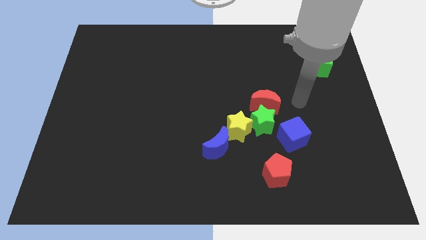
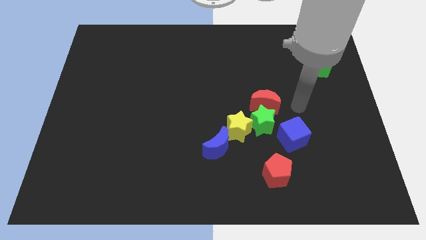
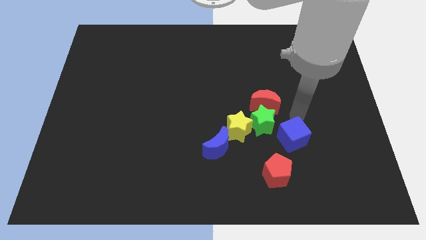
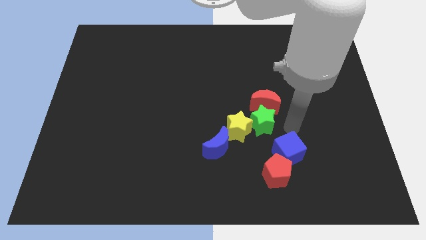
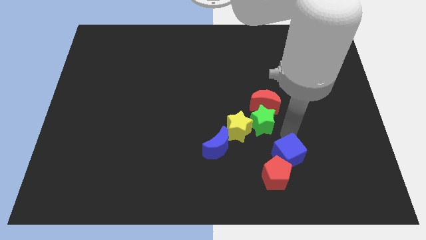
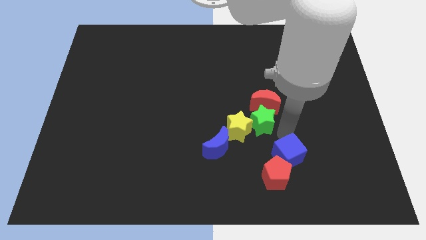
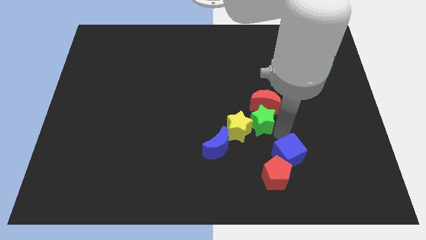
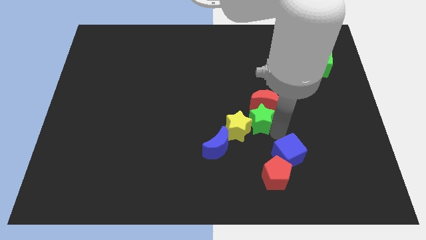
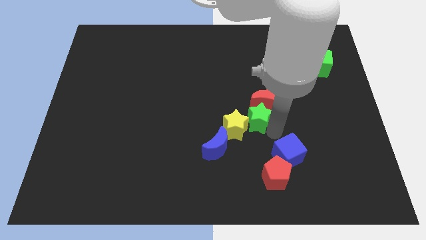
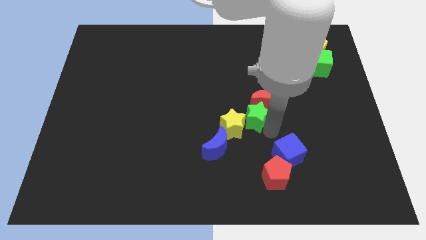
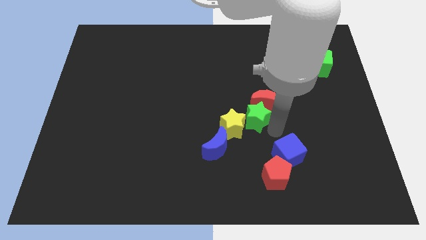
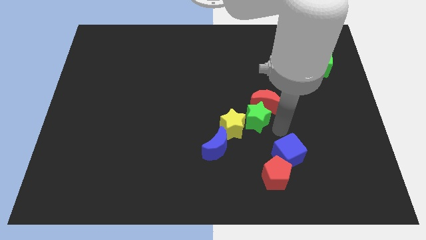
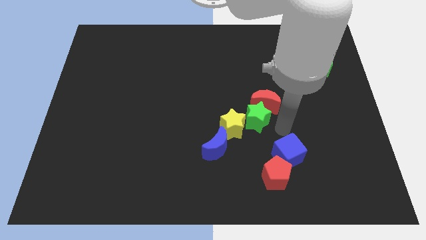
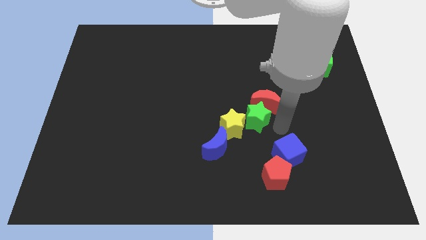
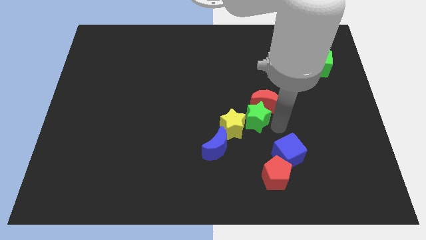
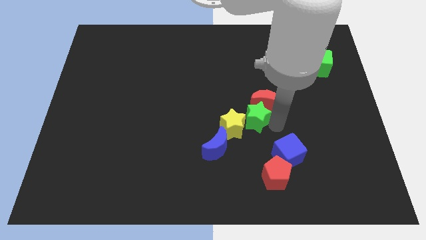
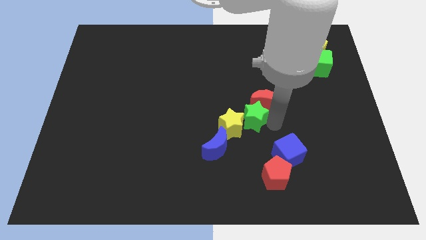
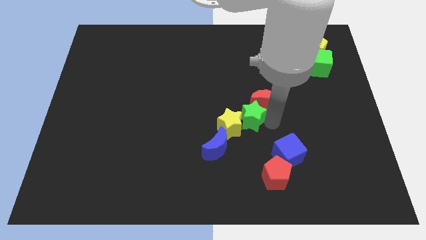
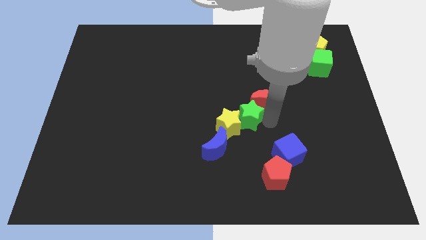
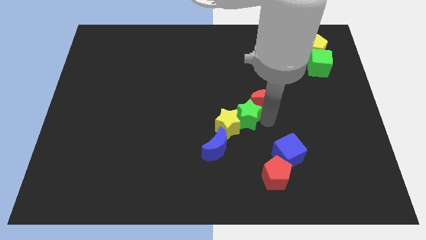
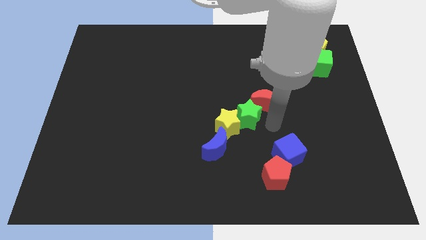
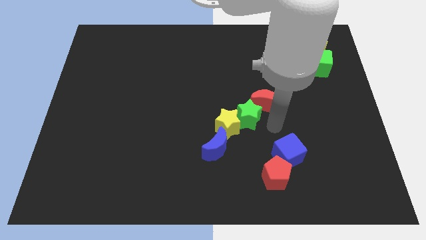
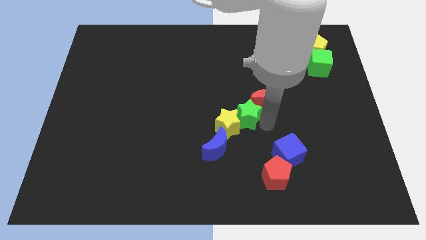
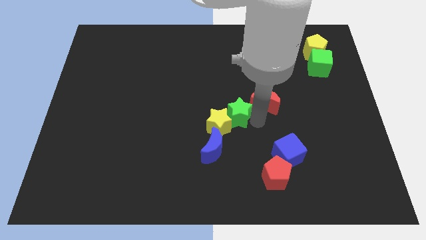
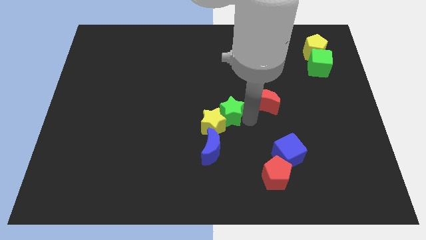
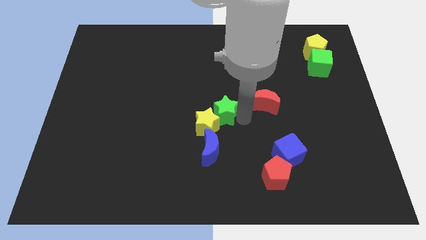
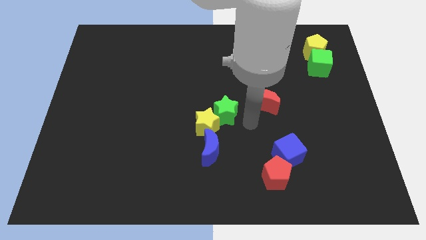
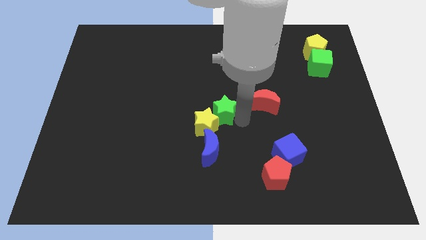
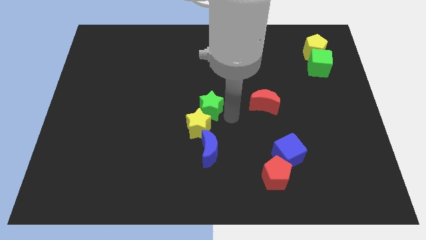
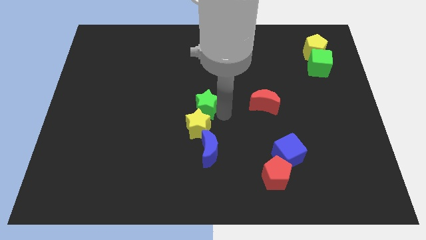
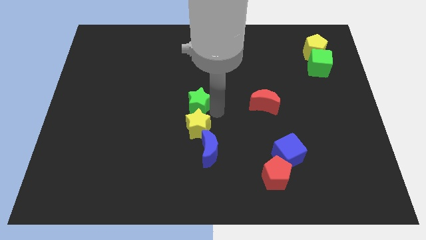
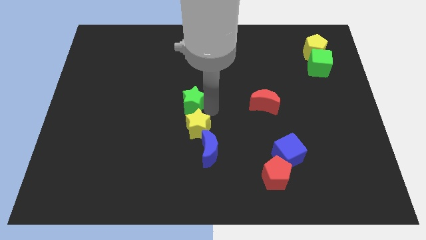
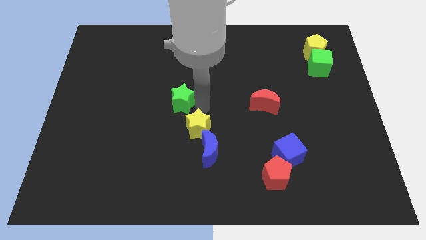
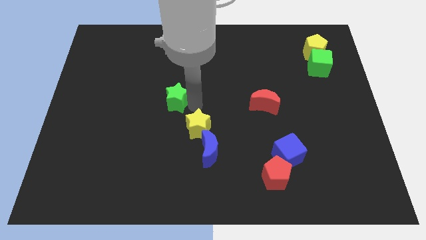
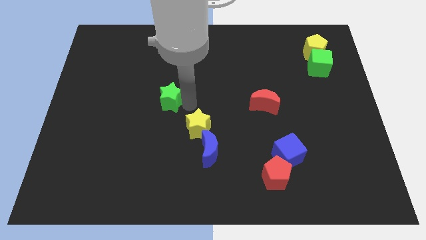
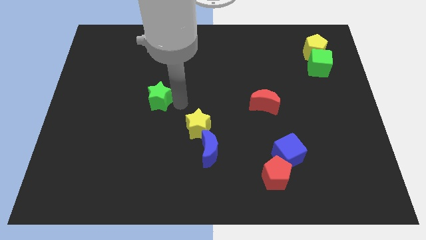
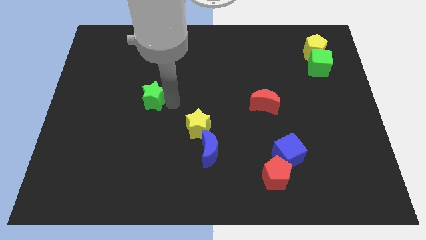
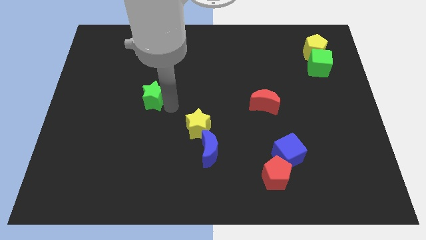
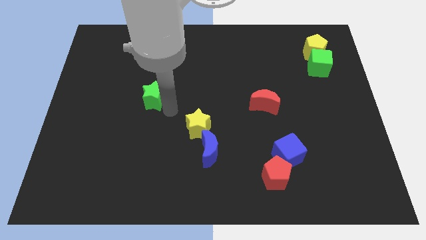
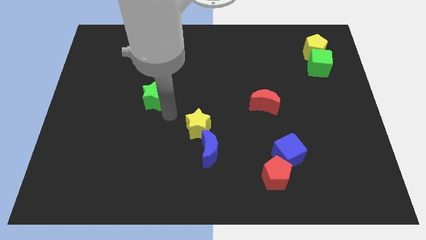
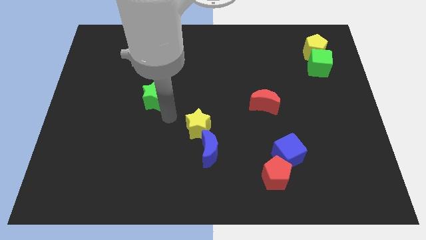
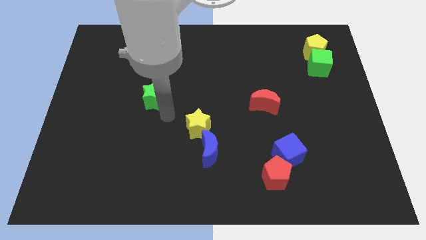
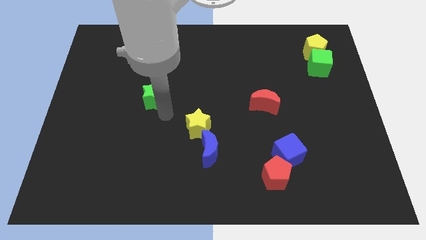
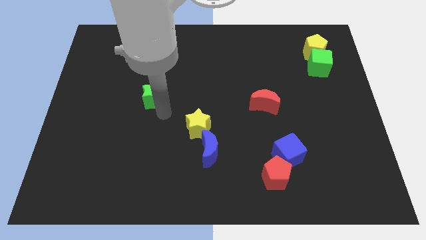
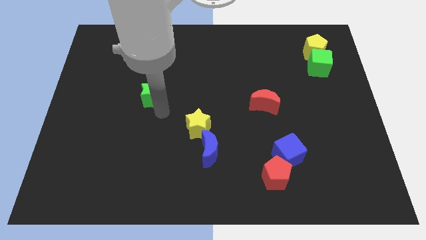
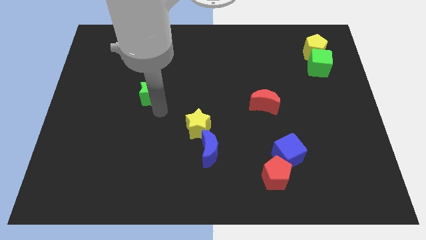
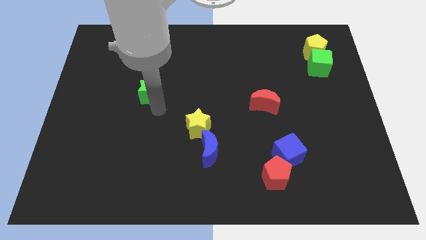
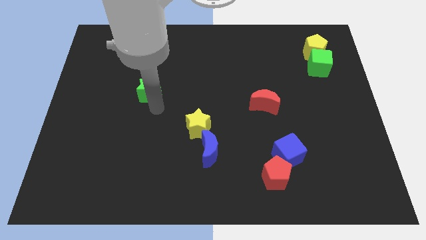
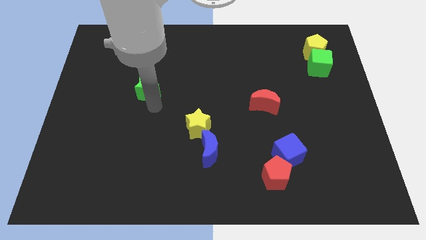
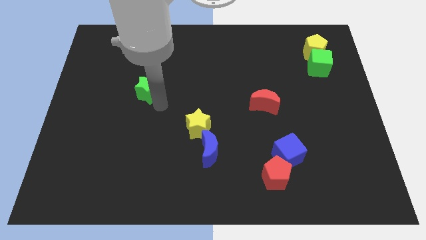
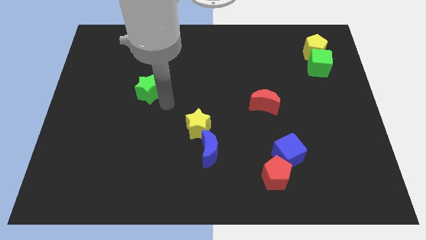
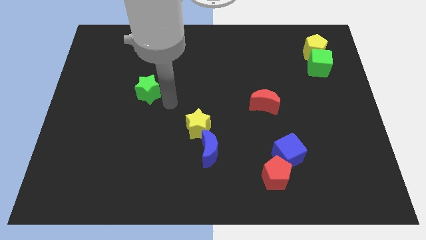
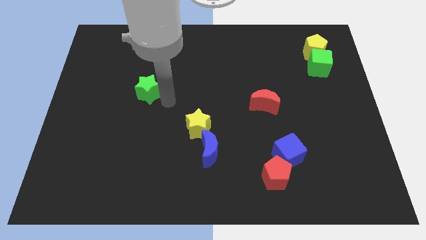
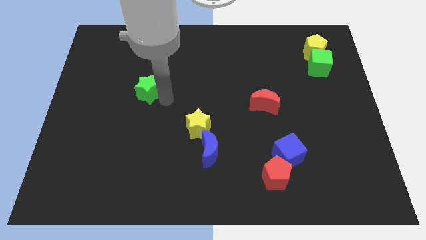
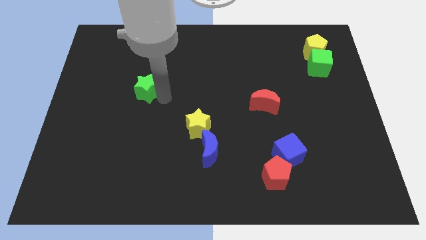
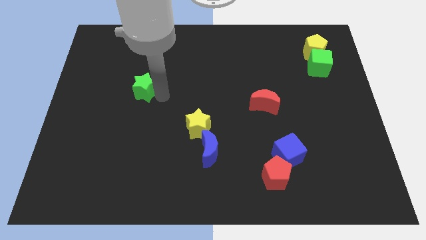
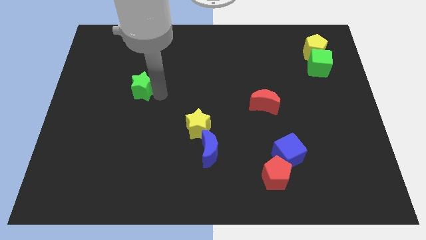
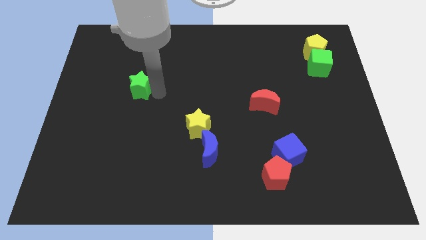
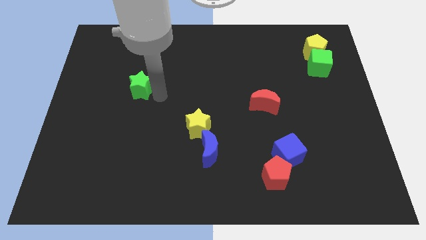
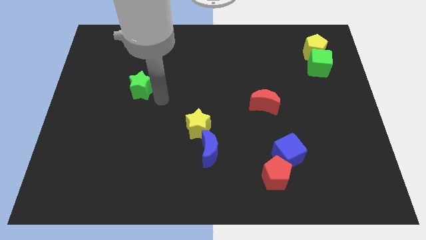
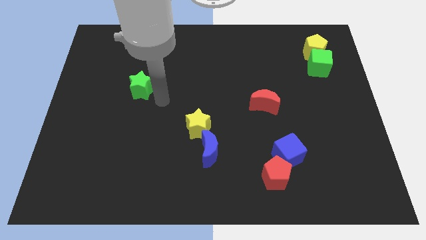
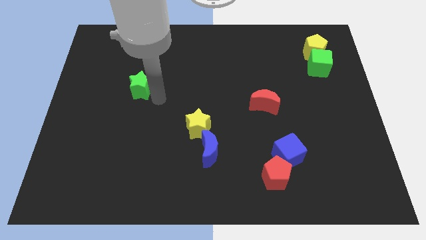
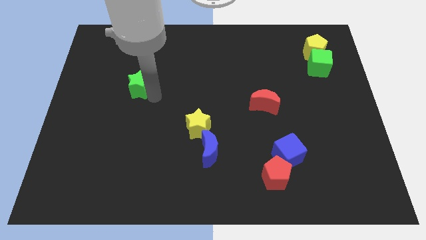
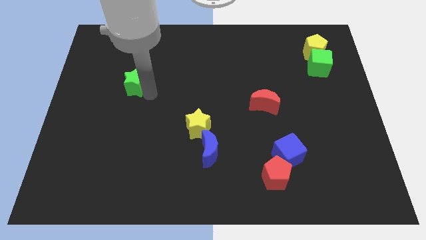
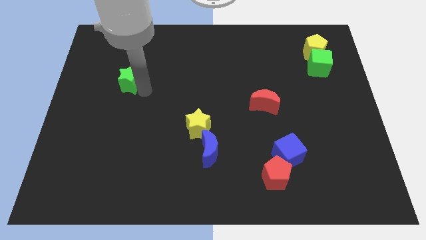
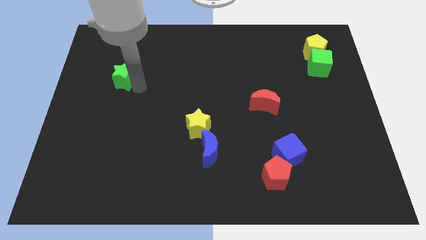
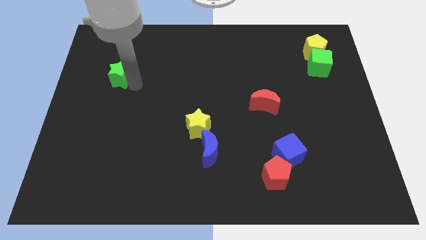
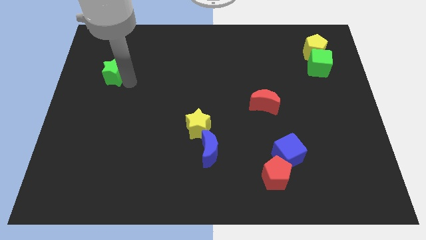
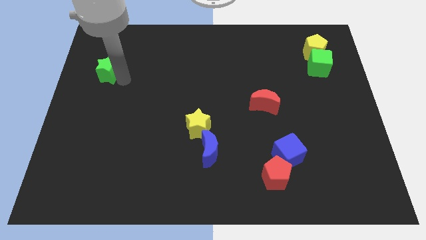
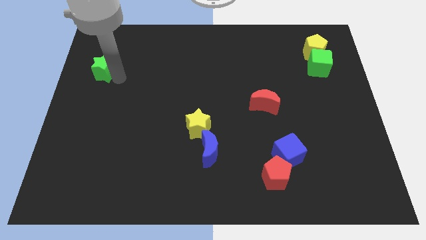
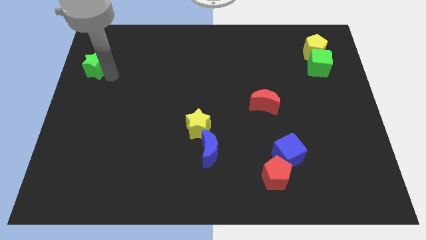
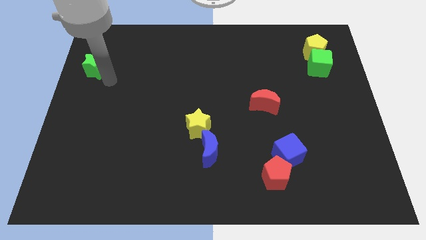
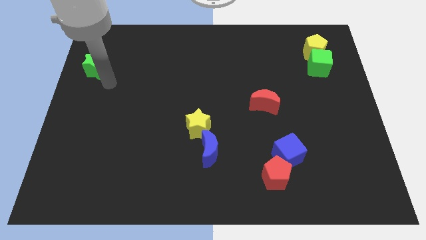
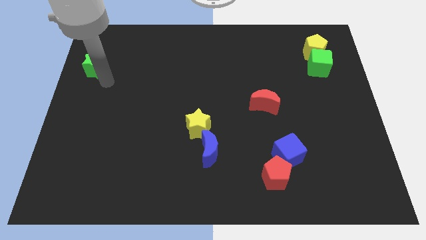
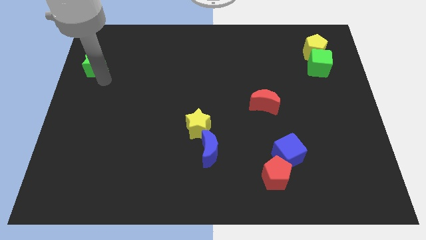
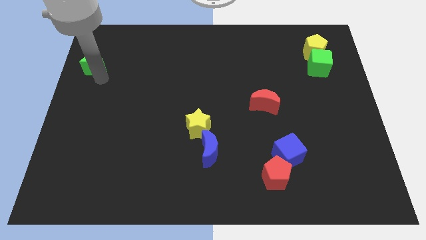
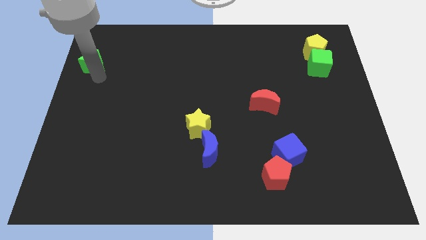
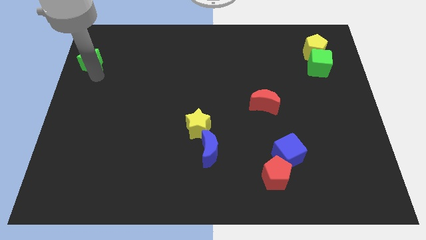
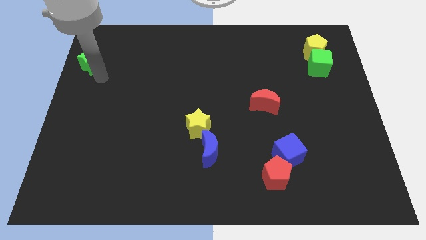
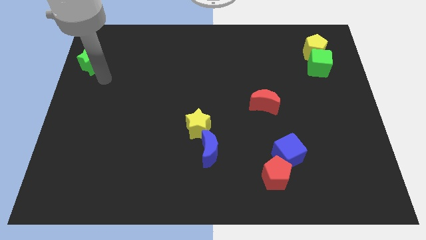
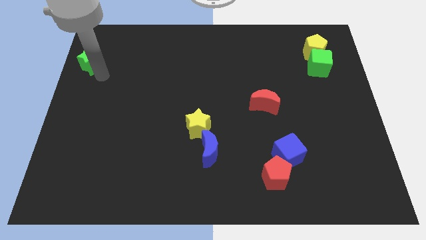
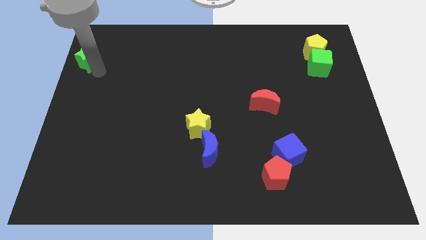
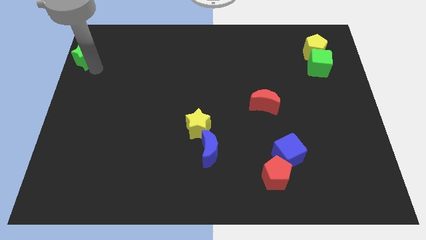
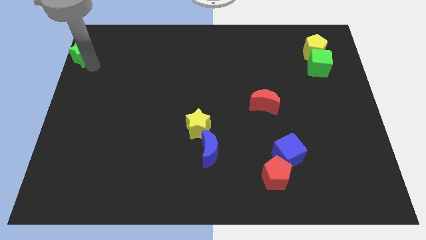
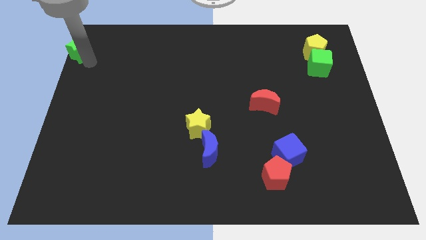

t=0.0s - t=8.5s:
push the green star to the top left of the board
